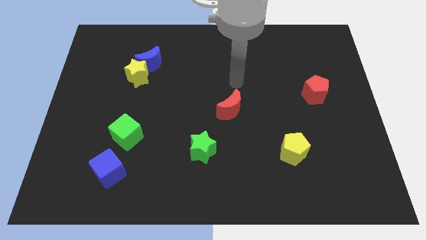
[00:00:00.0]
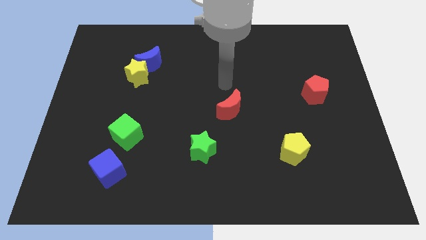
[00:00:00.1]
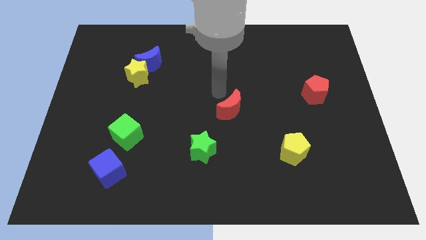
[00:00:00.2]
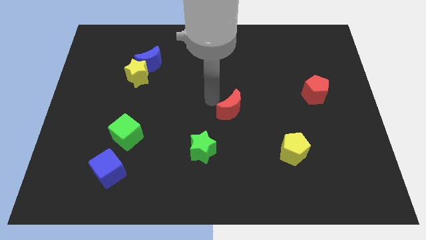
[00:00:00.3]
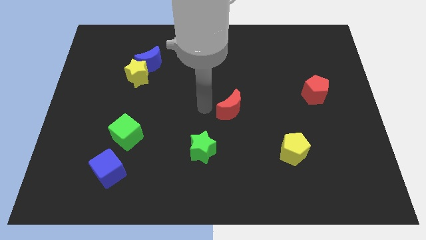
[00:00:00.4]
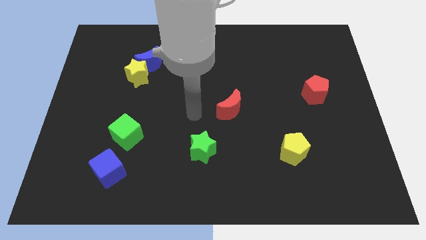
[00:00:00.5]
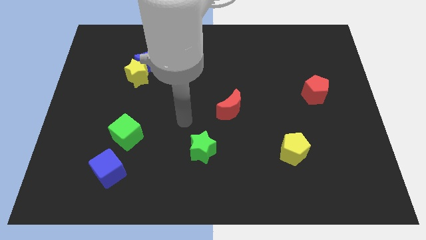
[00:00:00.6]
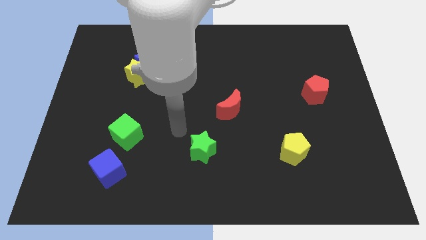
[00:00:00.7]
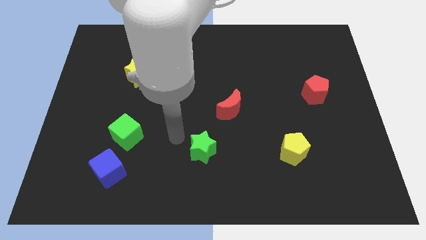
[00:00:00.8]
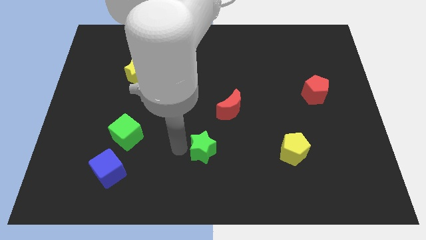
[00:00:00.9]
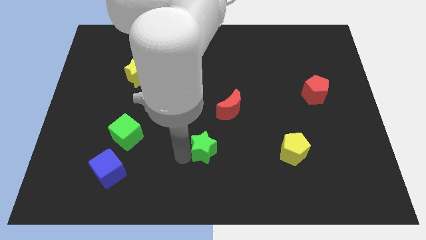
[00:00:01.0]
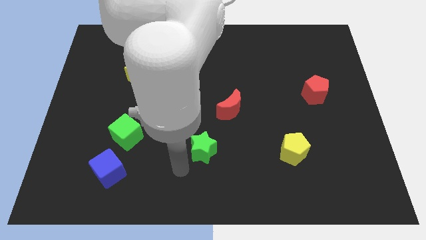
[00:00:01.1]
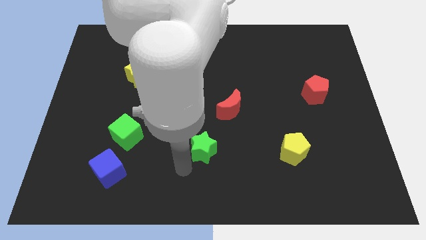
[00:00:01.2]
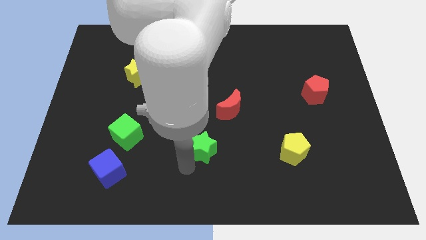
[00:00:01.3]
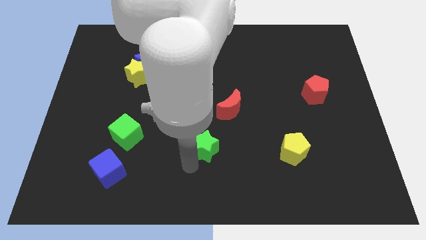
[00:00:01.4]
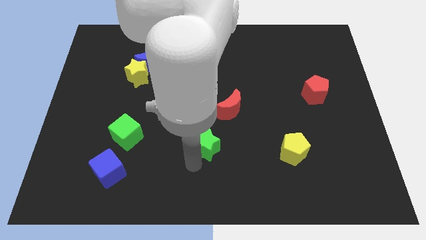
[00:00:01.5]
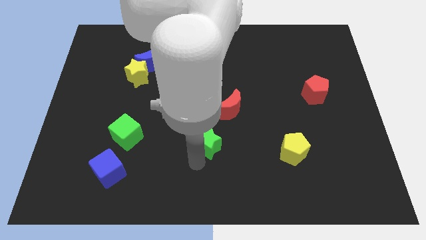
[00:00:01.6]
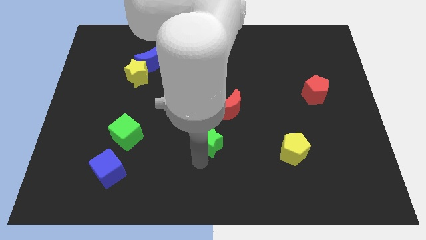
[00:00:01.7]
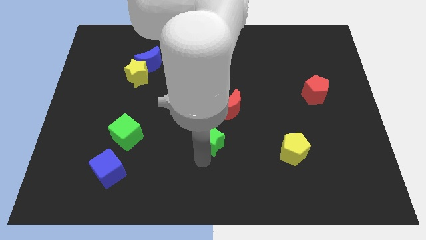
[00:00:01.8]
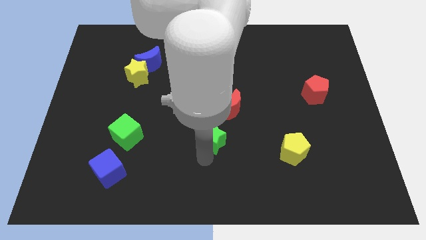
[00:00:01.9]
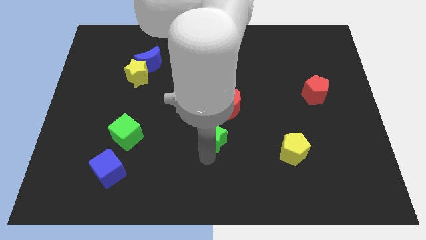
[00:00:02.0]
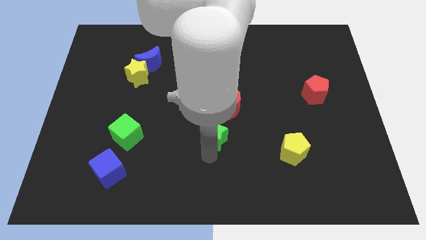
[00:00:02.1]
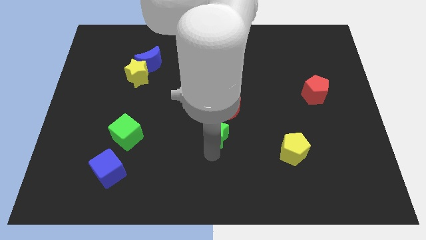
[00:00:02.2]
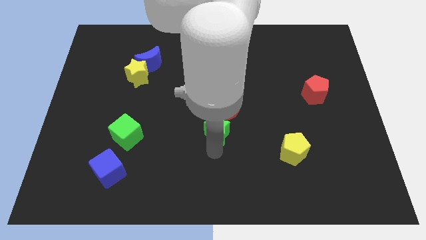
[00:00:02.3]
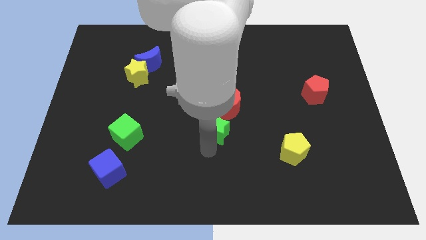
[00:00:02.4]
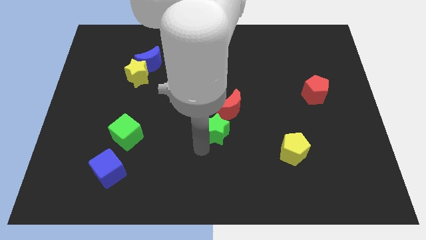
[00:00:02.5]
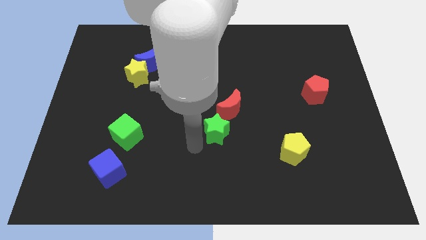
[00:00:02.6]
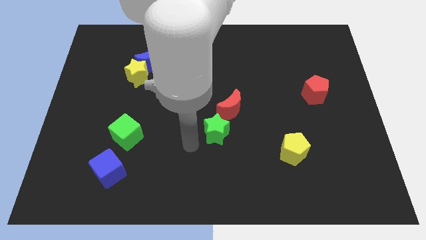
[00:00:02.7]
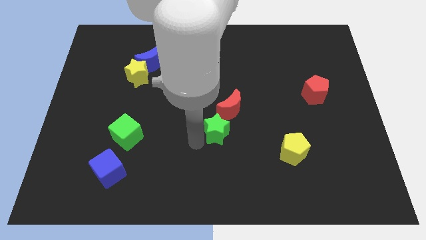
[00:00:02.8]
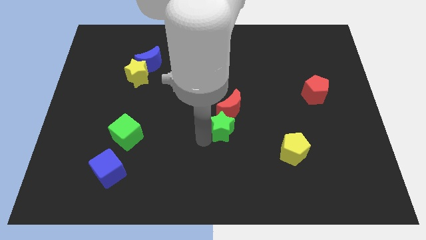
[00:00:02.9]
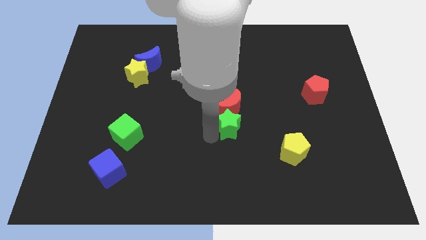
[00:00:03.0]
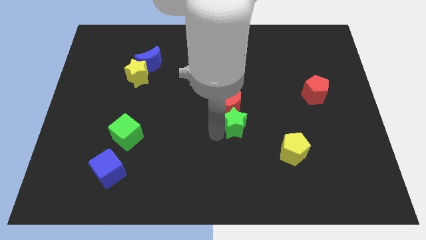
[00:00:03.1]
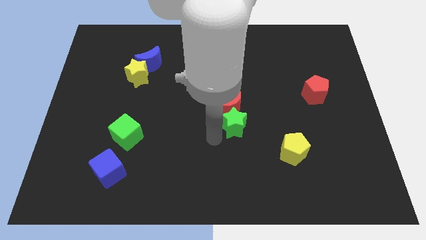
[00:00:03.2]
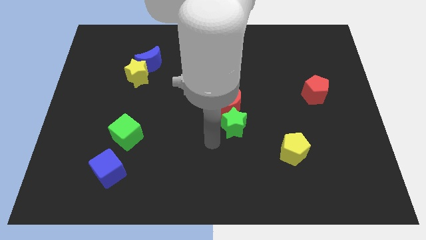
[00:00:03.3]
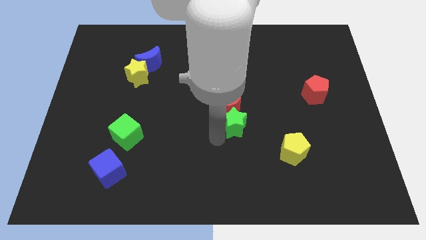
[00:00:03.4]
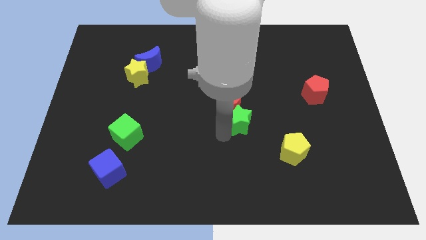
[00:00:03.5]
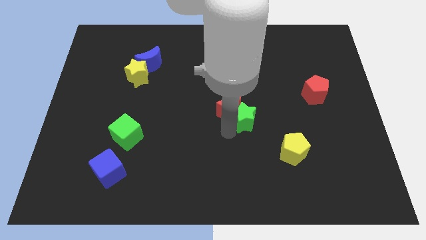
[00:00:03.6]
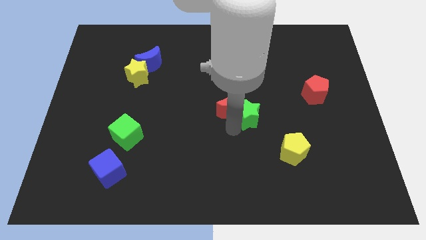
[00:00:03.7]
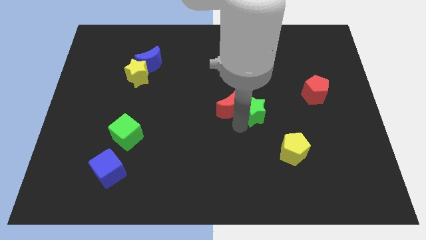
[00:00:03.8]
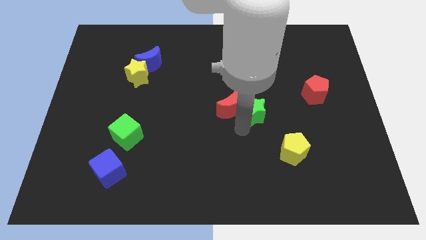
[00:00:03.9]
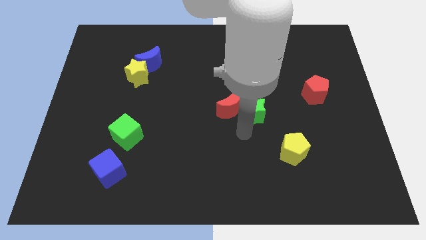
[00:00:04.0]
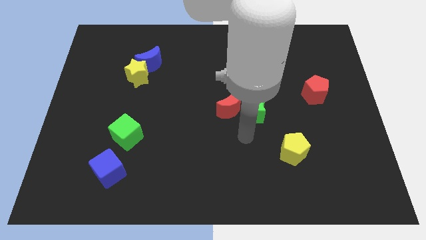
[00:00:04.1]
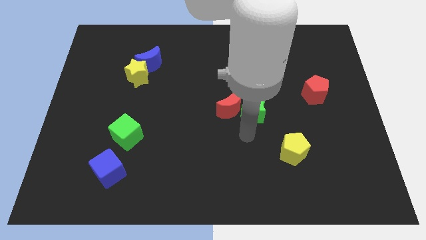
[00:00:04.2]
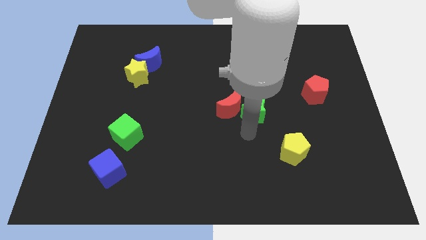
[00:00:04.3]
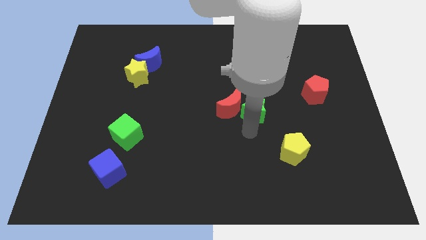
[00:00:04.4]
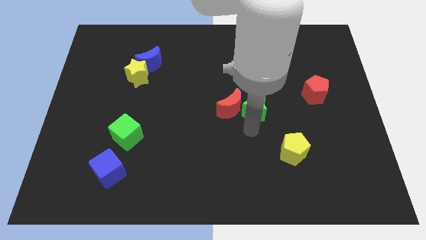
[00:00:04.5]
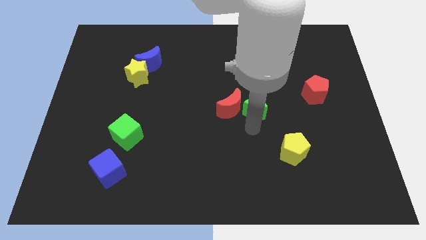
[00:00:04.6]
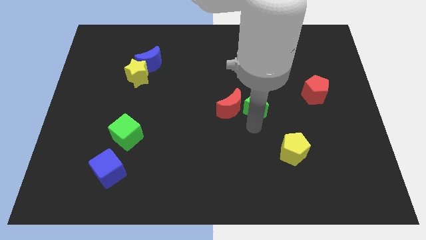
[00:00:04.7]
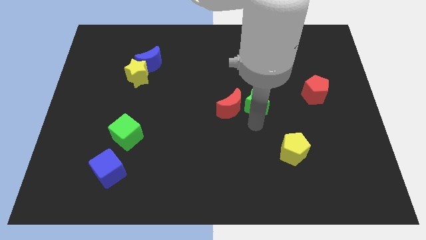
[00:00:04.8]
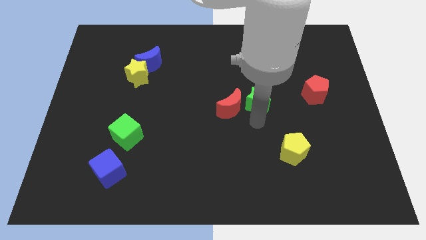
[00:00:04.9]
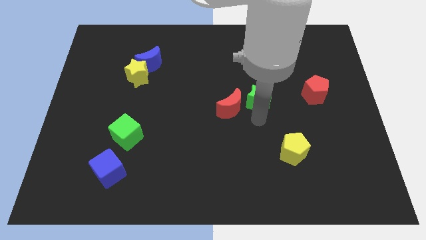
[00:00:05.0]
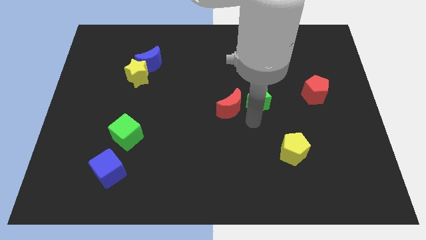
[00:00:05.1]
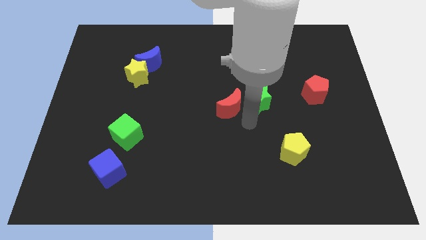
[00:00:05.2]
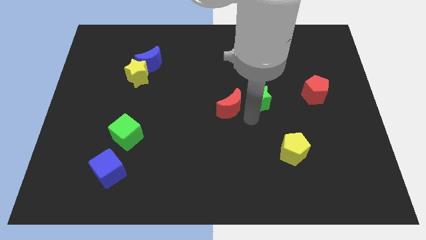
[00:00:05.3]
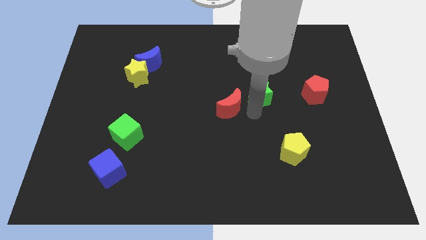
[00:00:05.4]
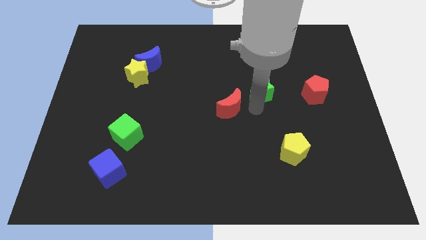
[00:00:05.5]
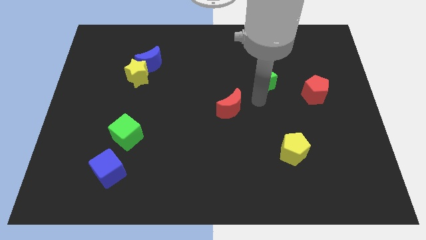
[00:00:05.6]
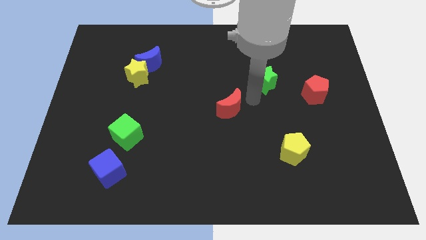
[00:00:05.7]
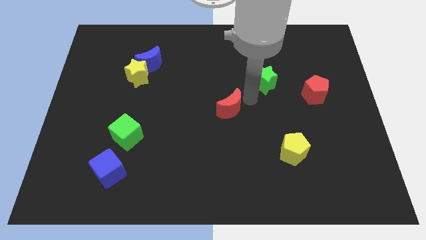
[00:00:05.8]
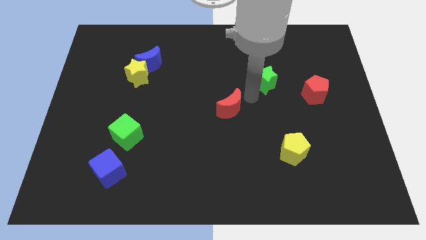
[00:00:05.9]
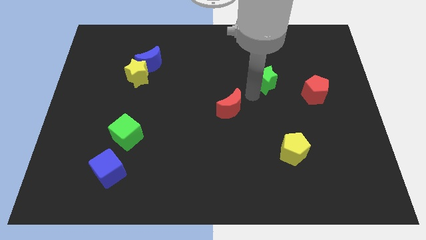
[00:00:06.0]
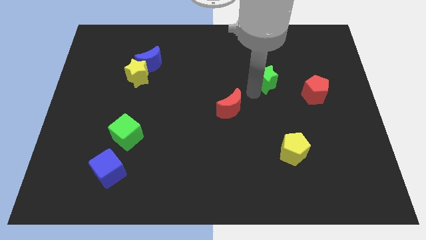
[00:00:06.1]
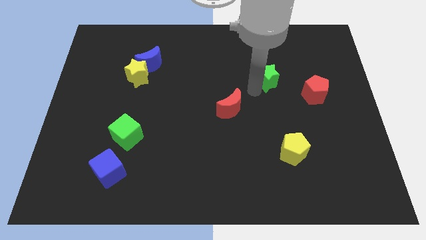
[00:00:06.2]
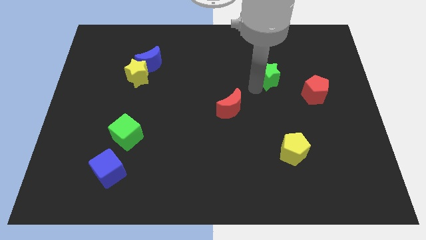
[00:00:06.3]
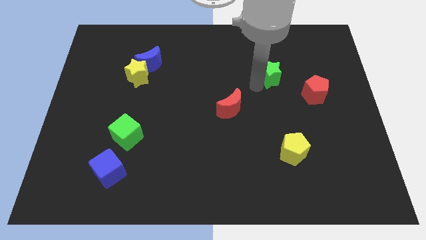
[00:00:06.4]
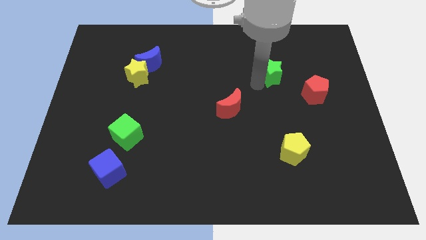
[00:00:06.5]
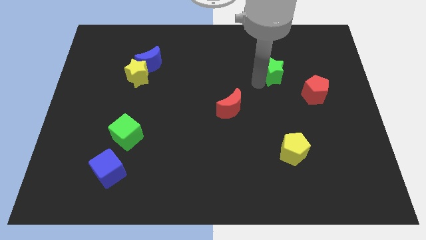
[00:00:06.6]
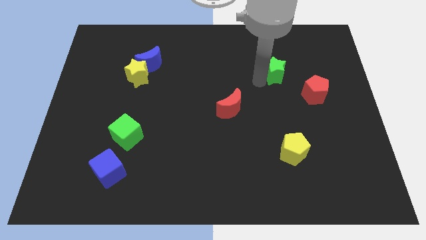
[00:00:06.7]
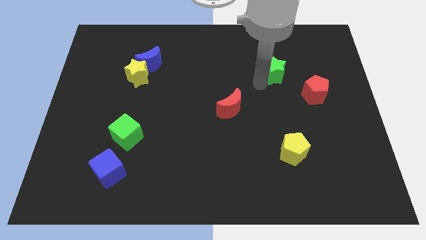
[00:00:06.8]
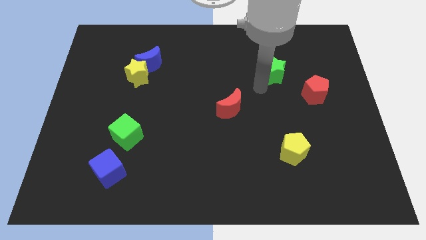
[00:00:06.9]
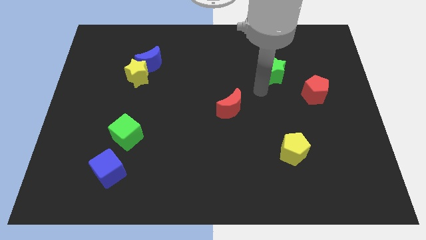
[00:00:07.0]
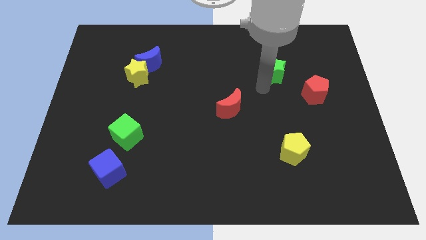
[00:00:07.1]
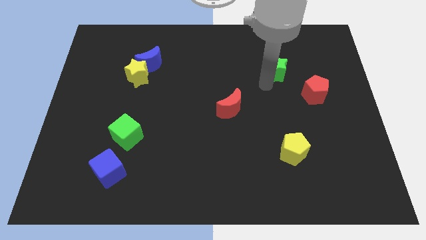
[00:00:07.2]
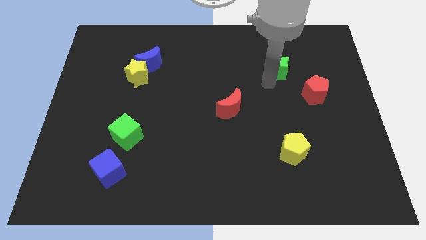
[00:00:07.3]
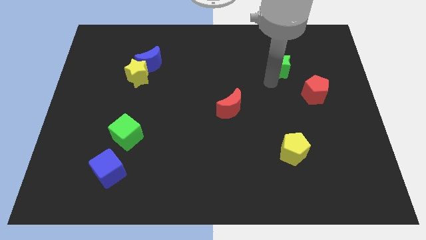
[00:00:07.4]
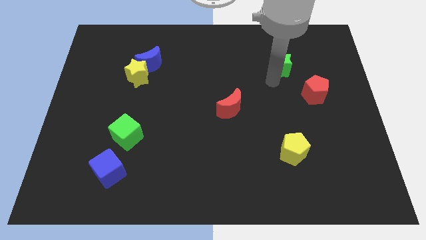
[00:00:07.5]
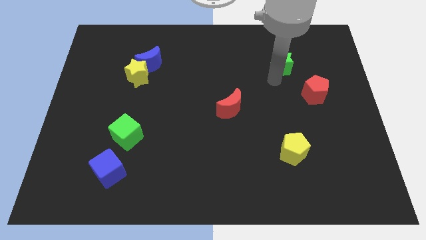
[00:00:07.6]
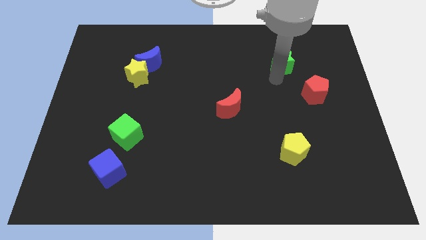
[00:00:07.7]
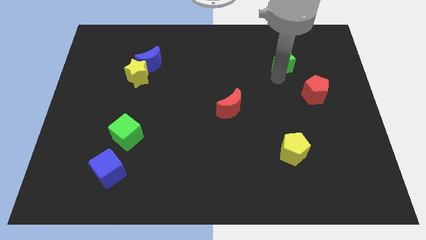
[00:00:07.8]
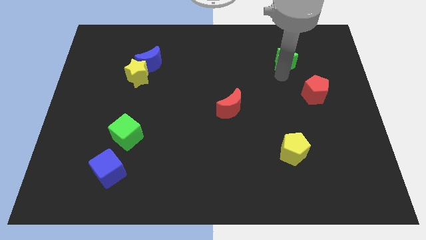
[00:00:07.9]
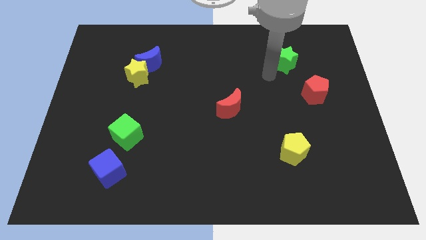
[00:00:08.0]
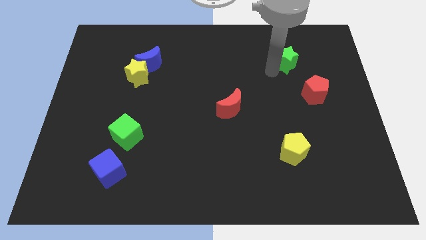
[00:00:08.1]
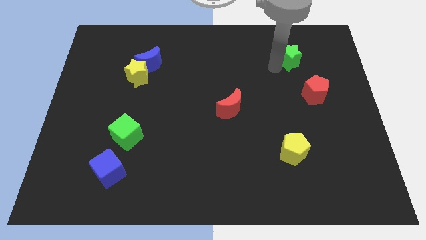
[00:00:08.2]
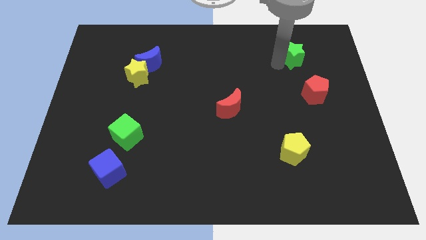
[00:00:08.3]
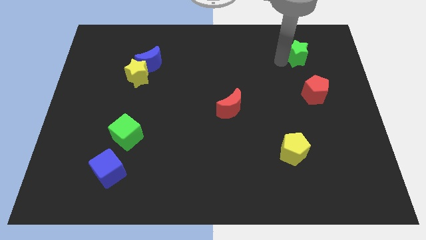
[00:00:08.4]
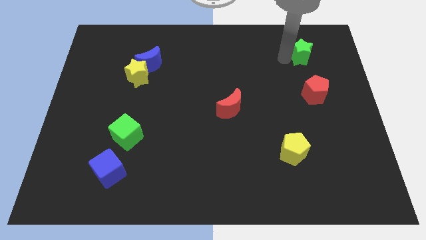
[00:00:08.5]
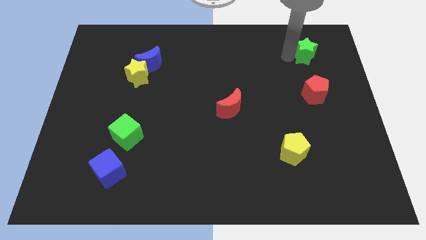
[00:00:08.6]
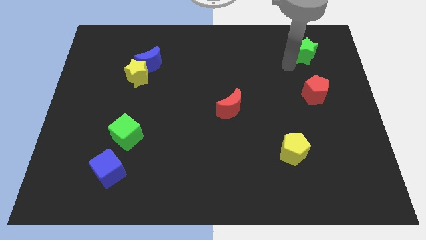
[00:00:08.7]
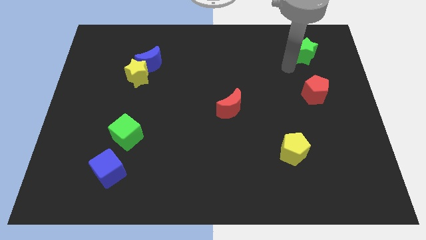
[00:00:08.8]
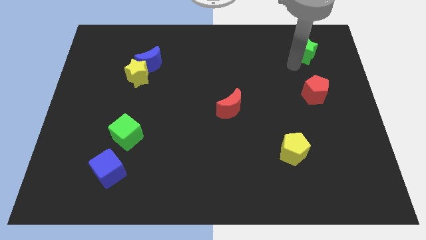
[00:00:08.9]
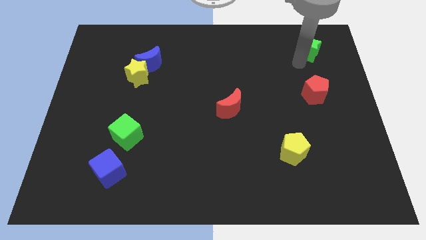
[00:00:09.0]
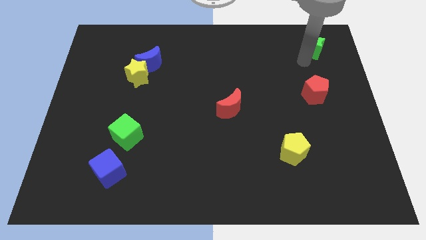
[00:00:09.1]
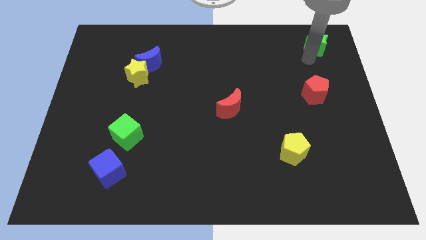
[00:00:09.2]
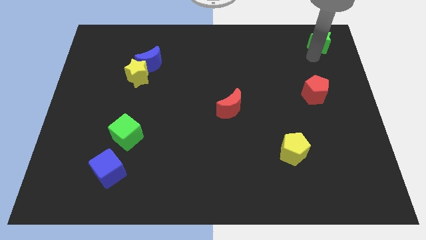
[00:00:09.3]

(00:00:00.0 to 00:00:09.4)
move the green star to the upper right corner
